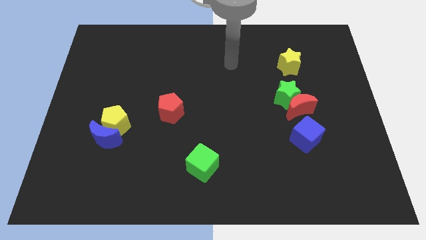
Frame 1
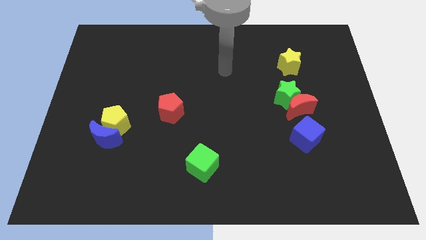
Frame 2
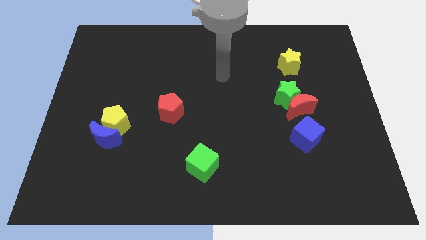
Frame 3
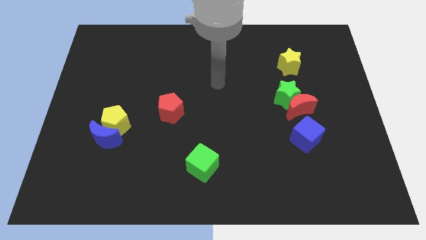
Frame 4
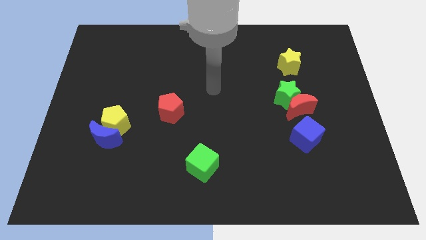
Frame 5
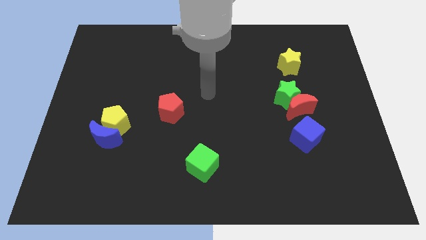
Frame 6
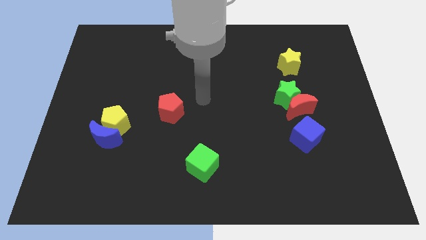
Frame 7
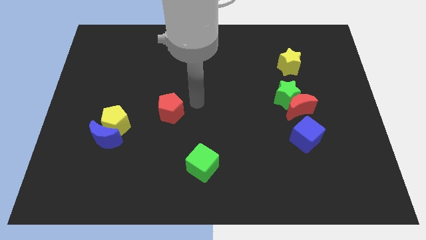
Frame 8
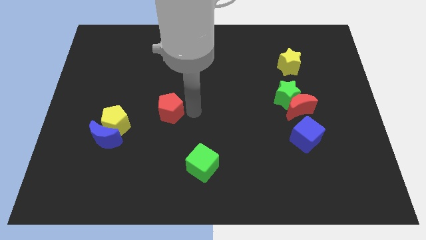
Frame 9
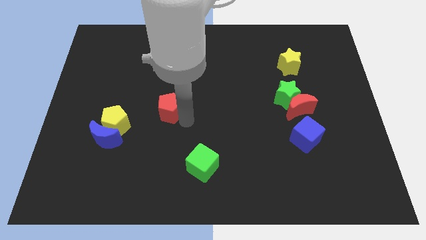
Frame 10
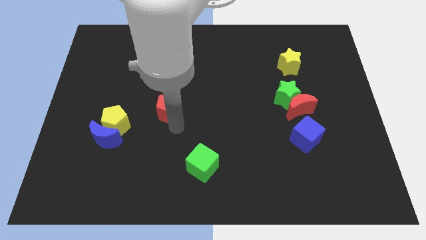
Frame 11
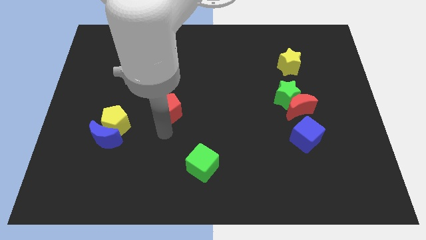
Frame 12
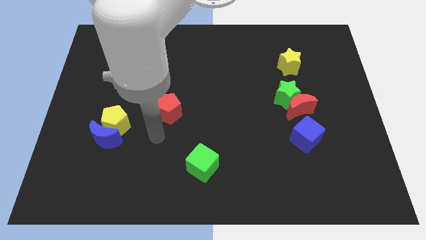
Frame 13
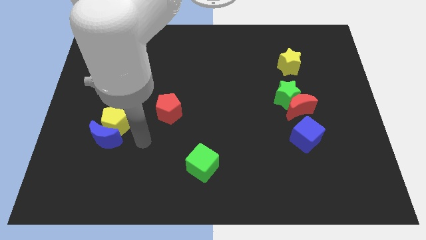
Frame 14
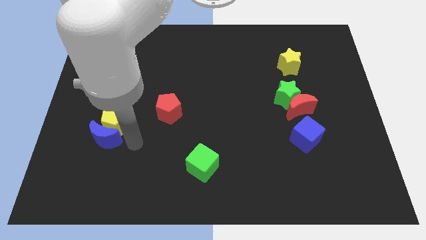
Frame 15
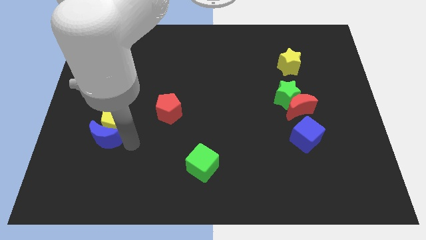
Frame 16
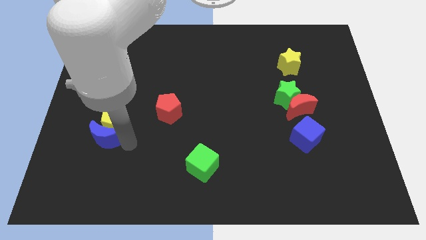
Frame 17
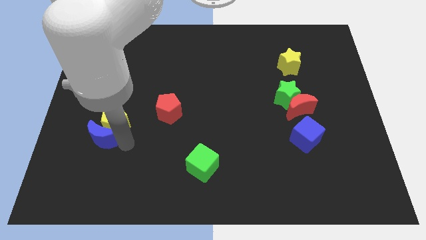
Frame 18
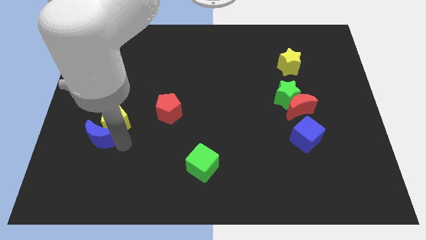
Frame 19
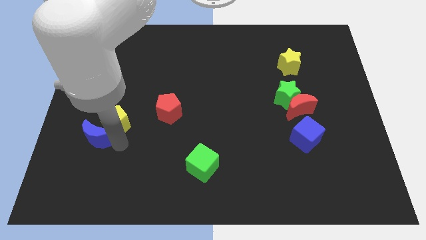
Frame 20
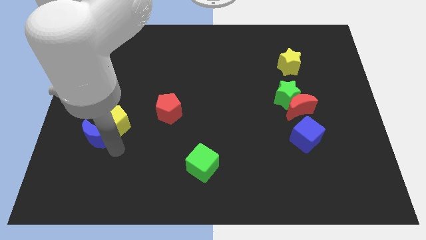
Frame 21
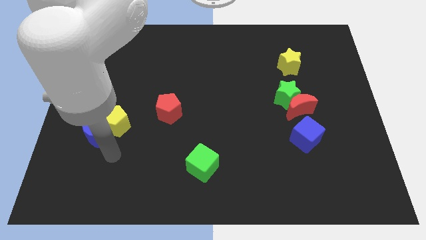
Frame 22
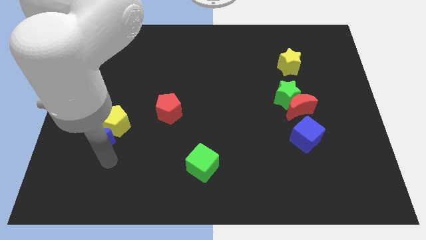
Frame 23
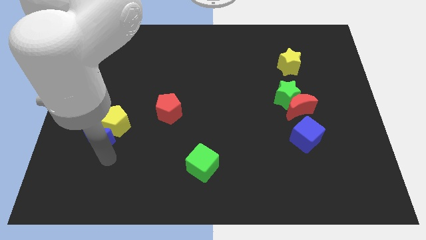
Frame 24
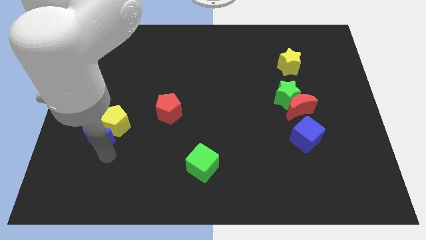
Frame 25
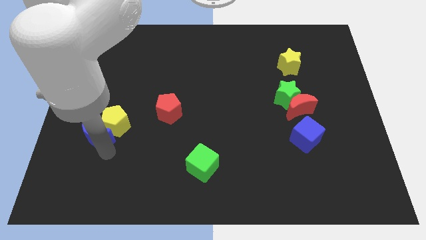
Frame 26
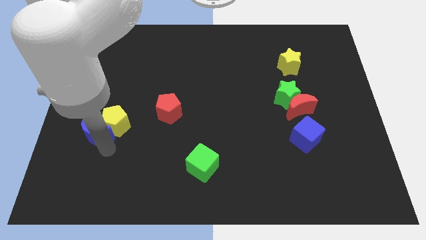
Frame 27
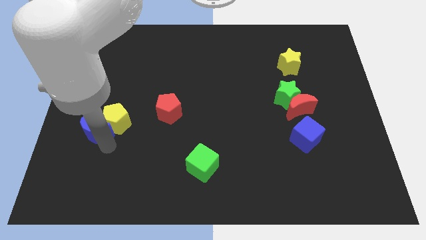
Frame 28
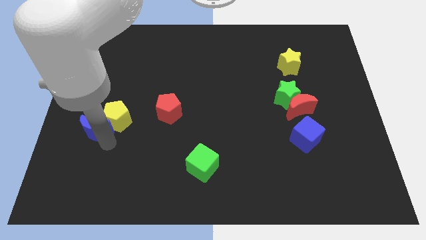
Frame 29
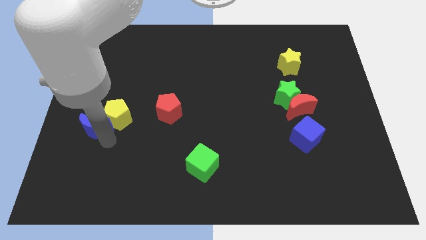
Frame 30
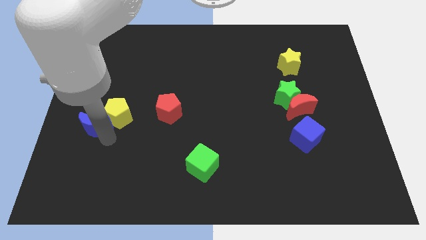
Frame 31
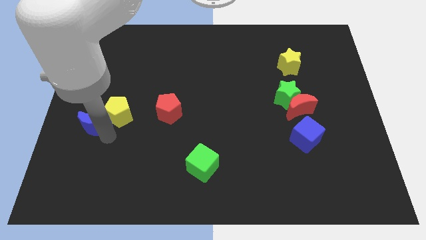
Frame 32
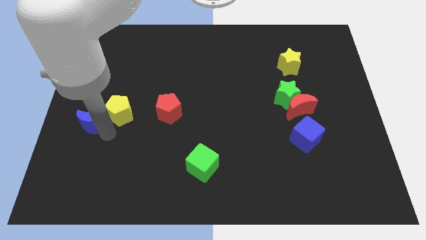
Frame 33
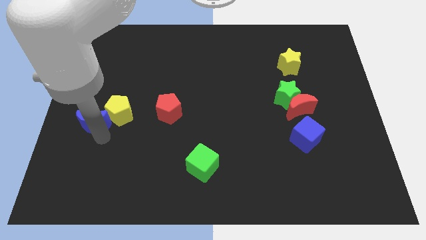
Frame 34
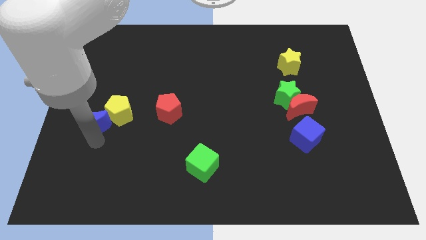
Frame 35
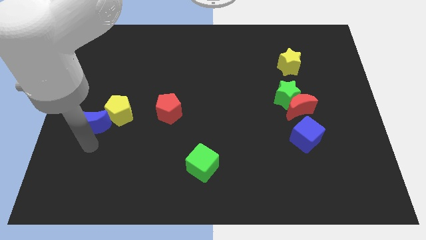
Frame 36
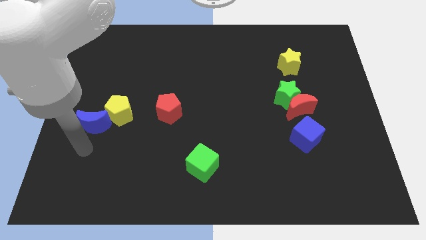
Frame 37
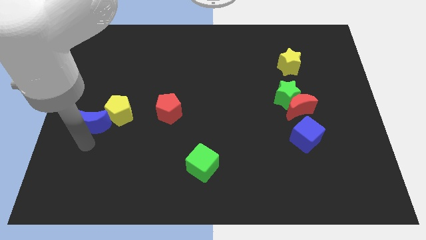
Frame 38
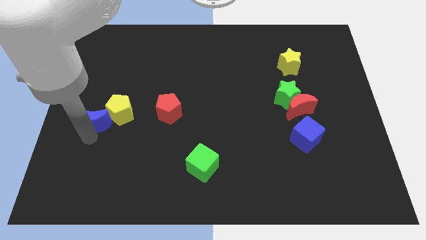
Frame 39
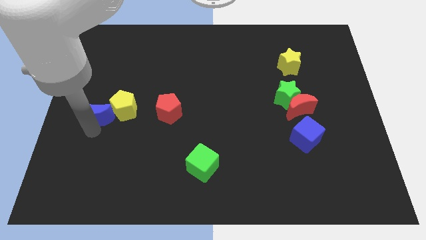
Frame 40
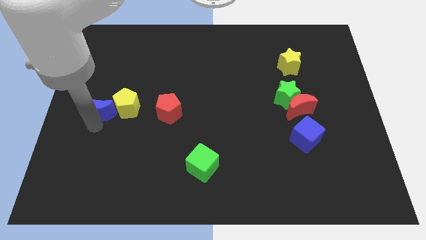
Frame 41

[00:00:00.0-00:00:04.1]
slide the blue moon a little up

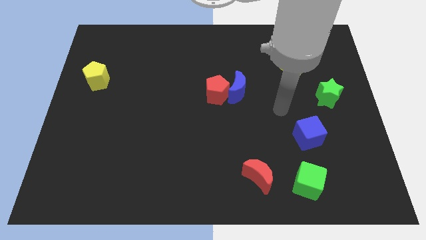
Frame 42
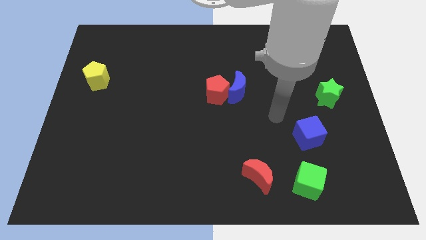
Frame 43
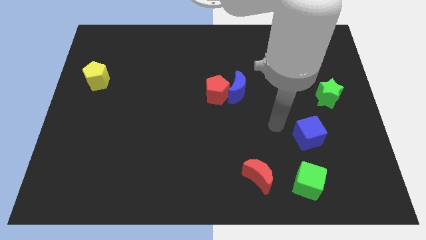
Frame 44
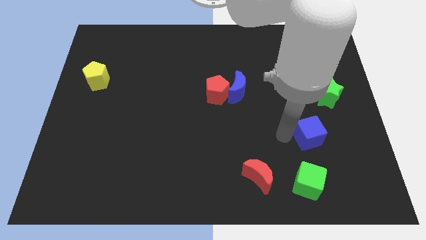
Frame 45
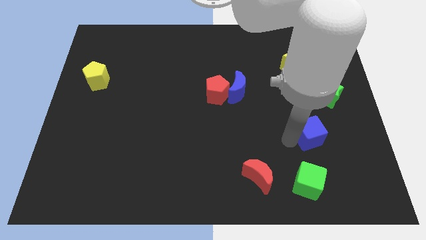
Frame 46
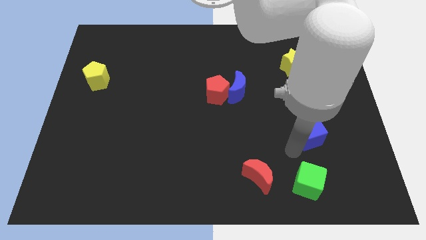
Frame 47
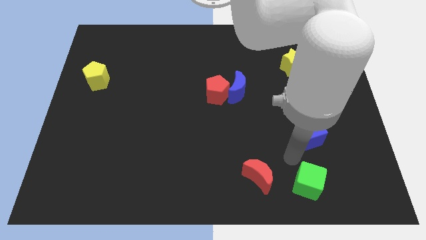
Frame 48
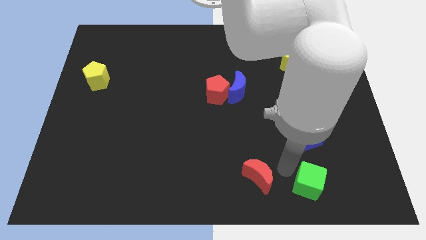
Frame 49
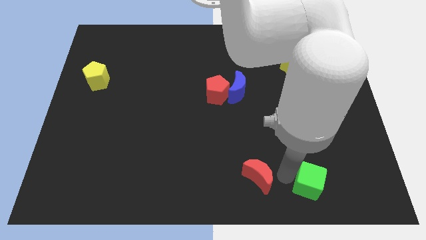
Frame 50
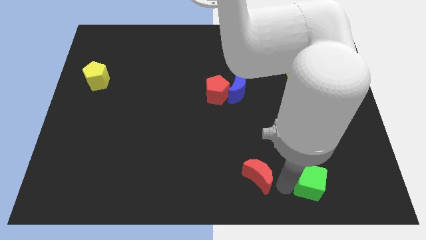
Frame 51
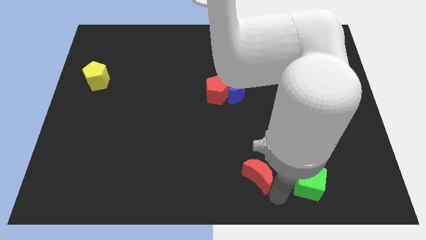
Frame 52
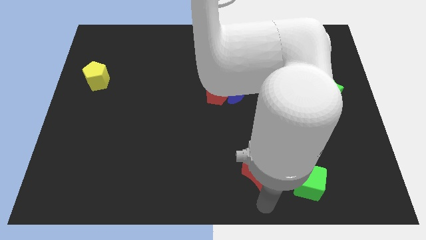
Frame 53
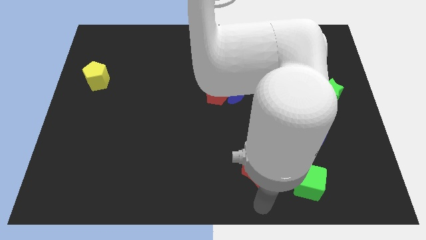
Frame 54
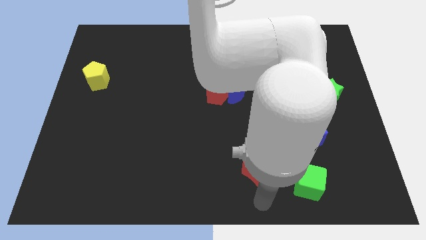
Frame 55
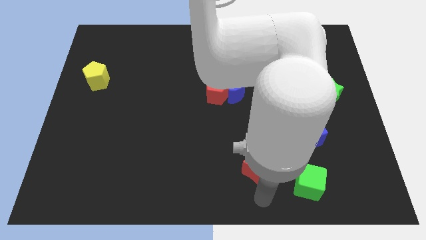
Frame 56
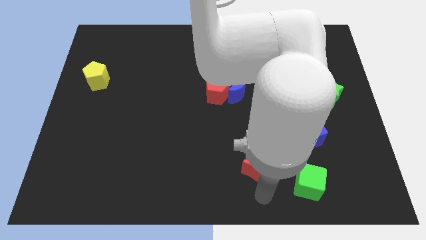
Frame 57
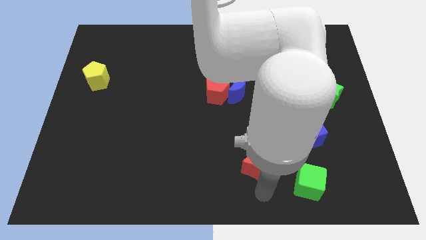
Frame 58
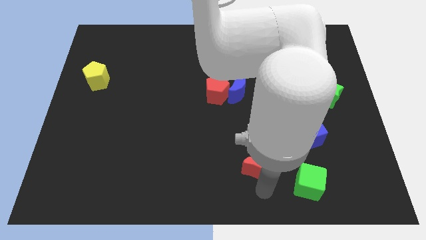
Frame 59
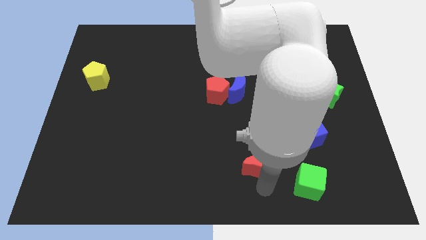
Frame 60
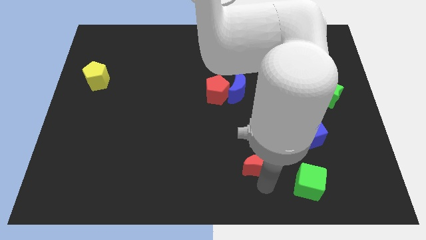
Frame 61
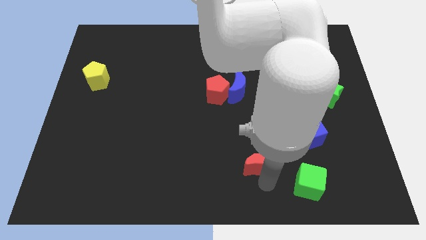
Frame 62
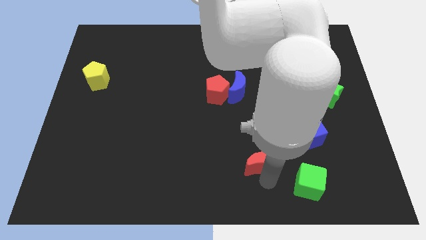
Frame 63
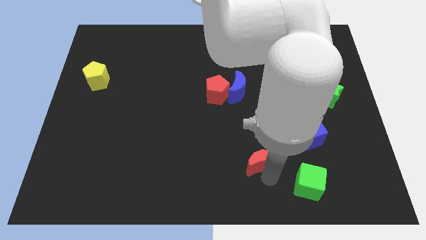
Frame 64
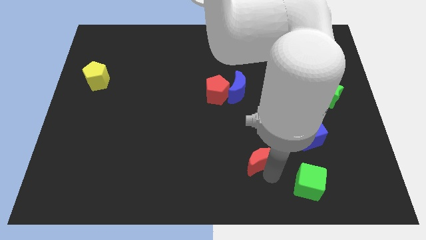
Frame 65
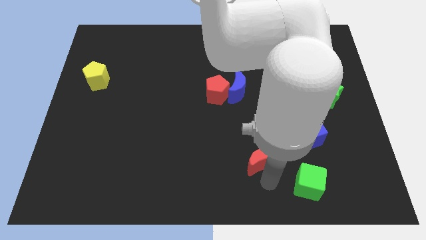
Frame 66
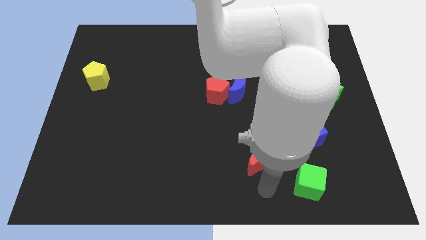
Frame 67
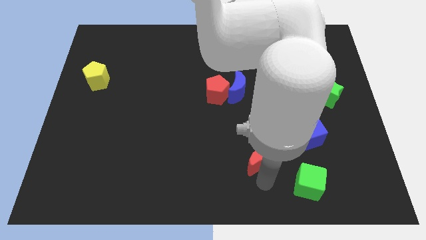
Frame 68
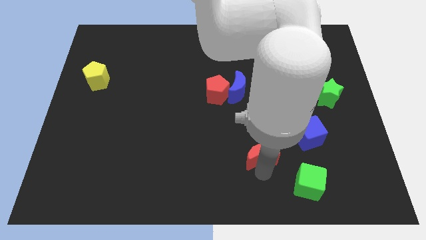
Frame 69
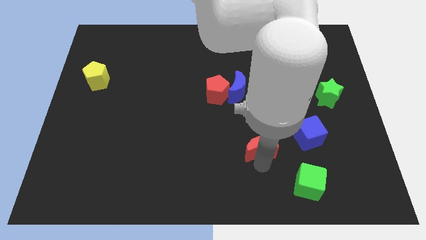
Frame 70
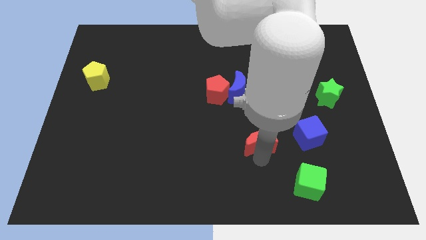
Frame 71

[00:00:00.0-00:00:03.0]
slightly move the red moon upwards

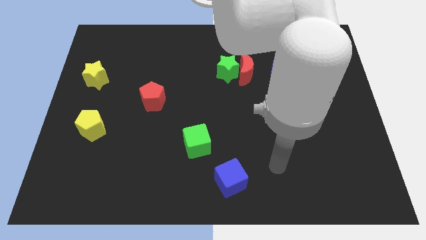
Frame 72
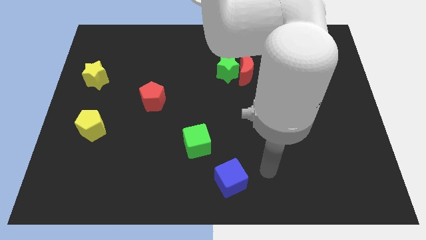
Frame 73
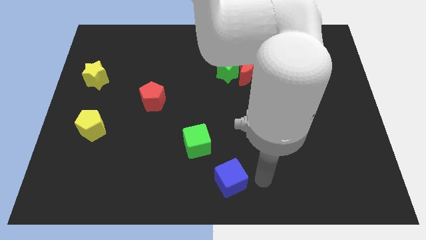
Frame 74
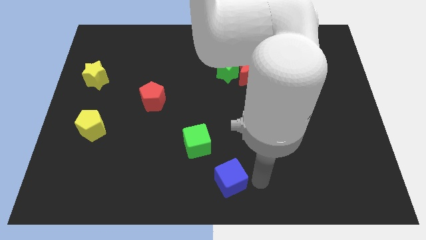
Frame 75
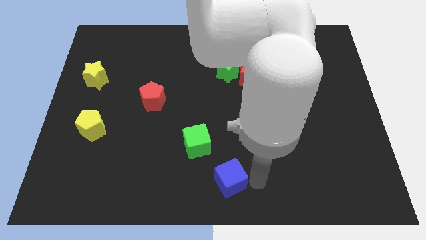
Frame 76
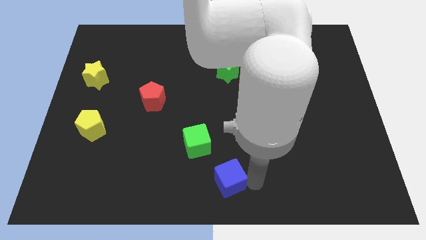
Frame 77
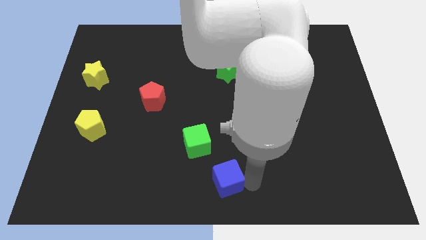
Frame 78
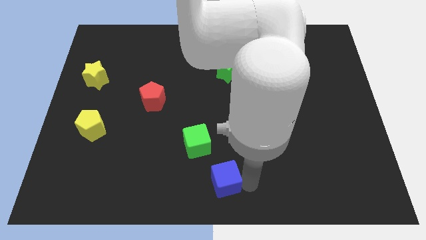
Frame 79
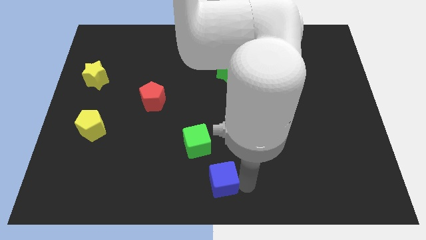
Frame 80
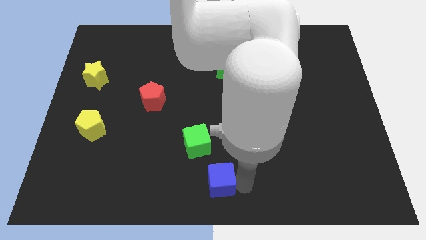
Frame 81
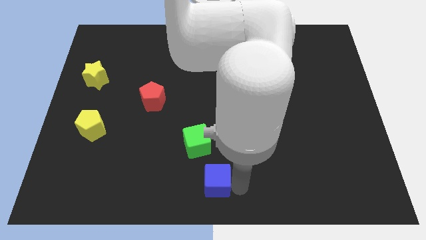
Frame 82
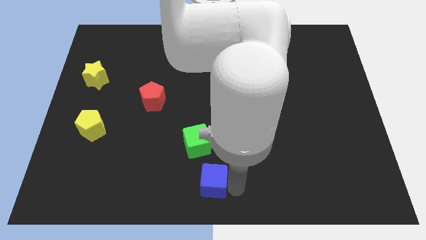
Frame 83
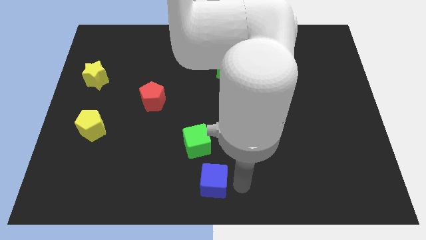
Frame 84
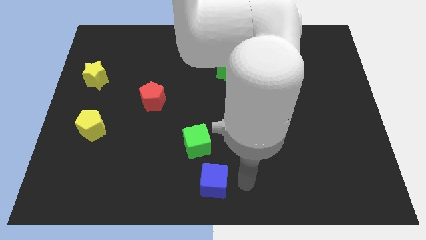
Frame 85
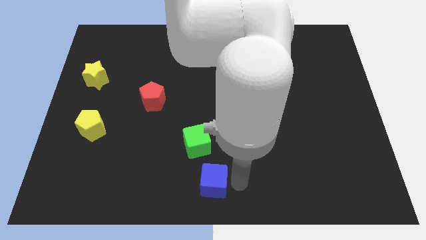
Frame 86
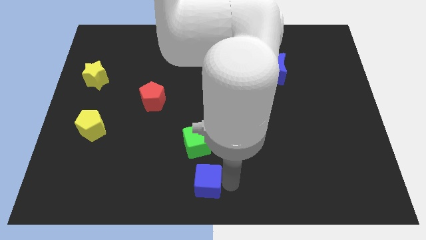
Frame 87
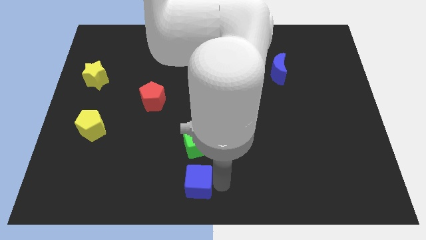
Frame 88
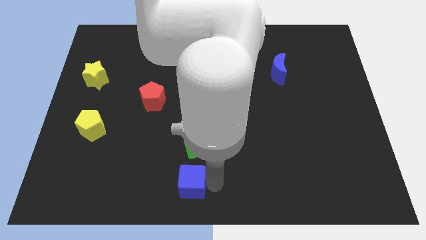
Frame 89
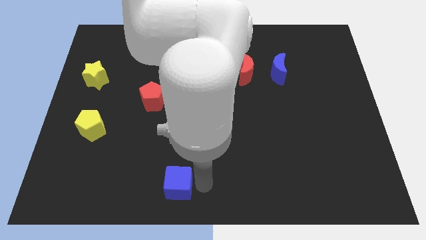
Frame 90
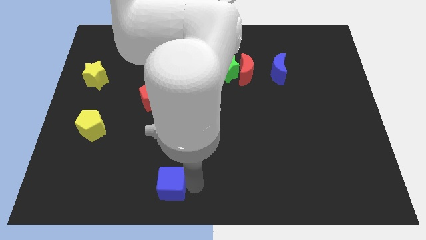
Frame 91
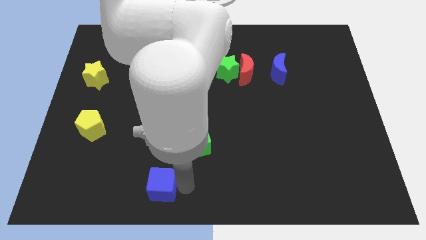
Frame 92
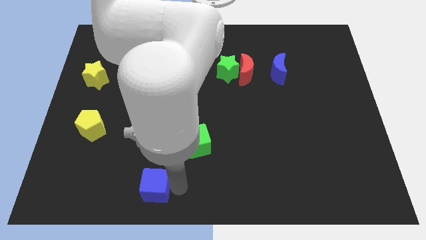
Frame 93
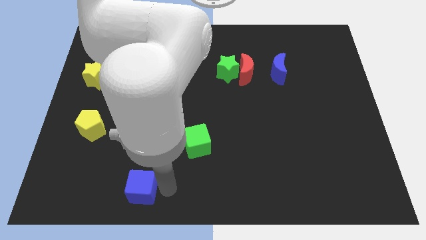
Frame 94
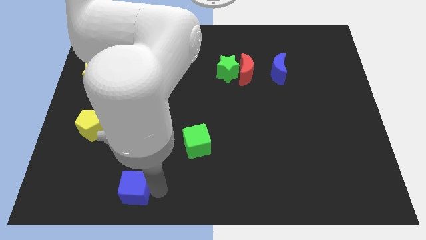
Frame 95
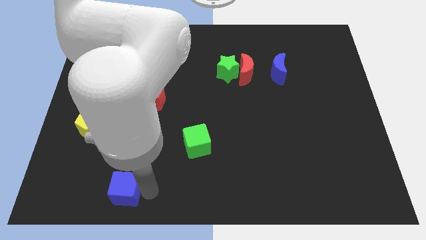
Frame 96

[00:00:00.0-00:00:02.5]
slide the blue cube left
